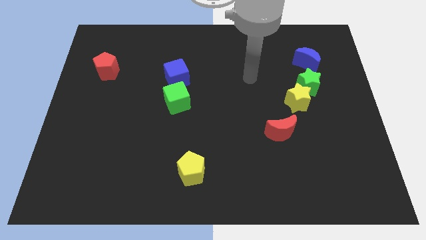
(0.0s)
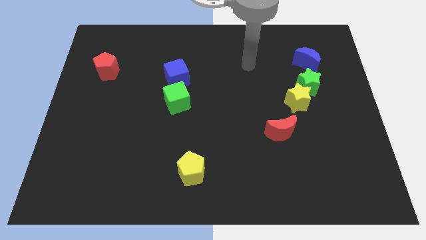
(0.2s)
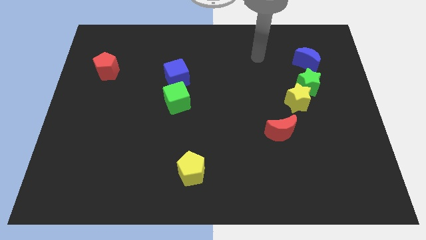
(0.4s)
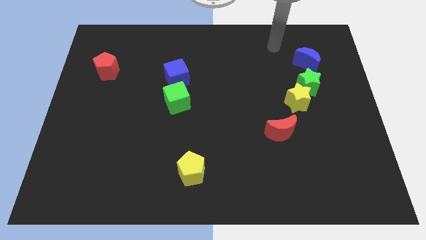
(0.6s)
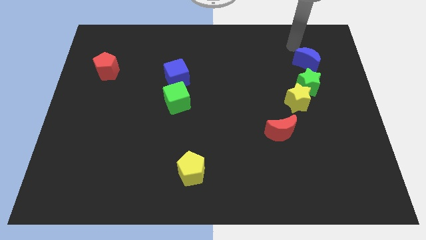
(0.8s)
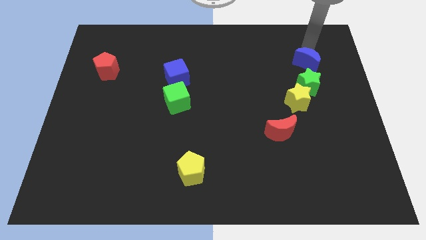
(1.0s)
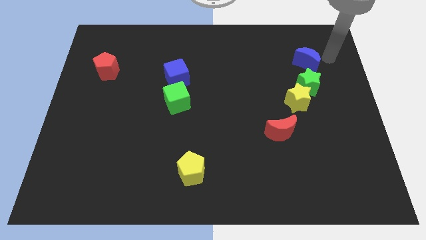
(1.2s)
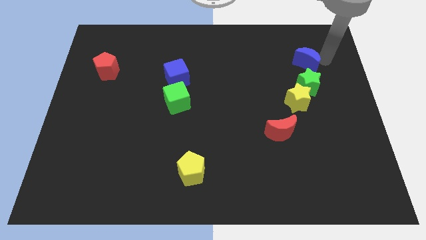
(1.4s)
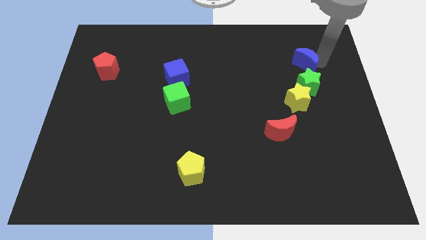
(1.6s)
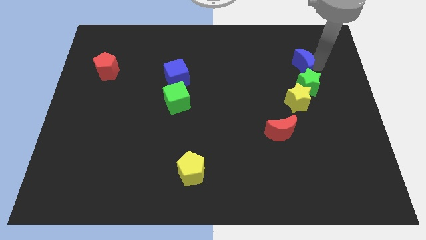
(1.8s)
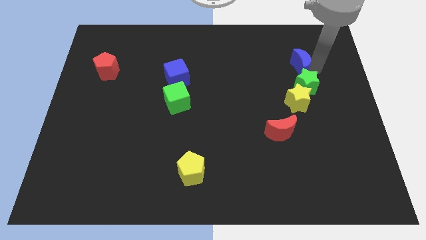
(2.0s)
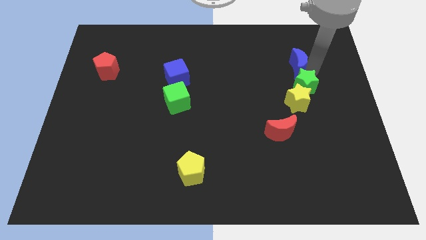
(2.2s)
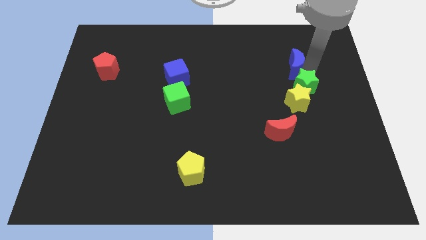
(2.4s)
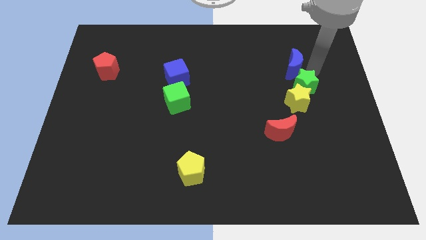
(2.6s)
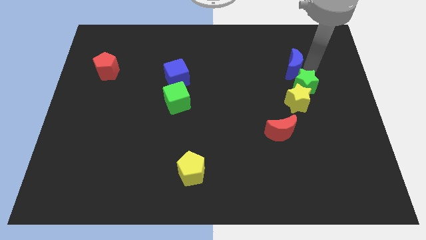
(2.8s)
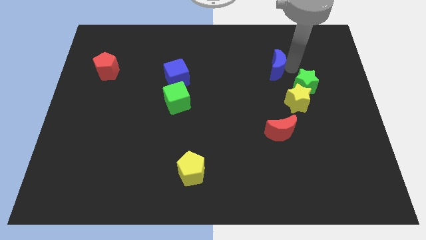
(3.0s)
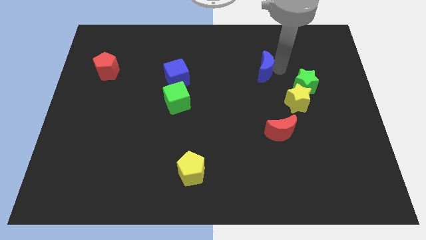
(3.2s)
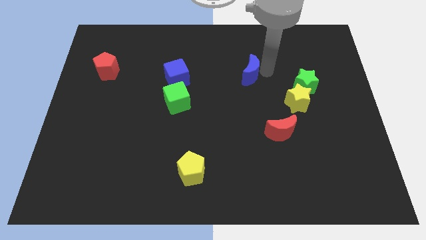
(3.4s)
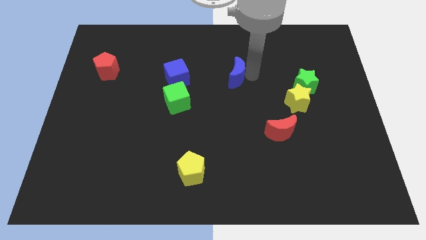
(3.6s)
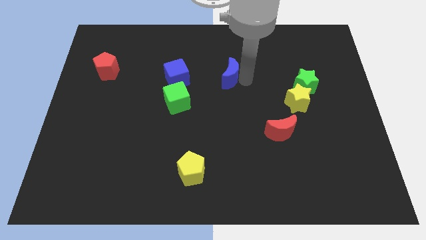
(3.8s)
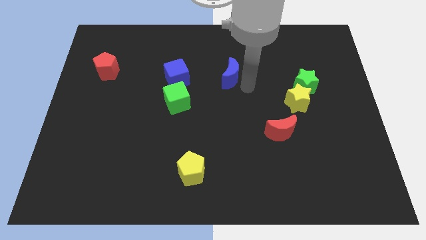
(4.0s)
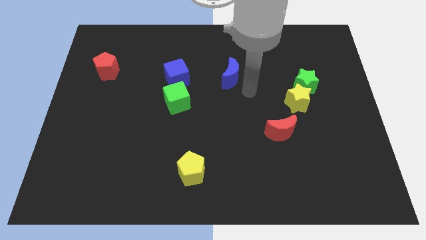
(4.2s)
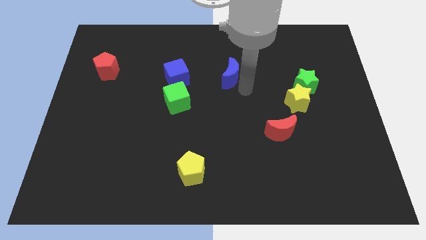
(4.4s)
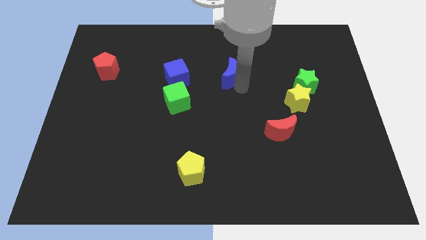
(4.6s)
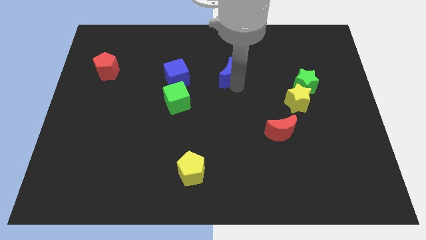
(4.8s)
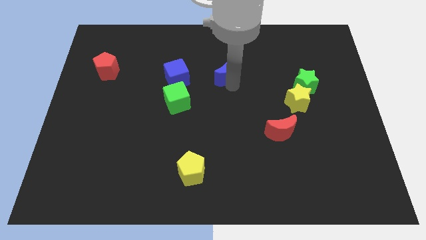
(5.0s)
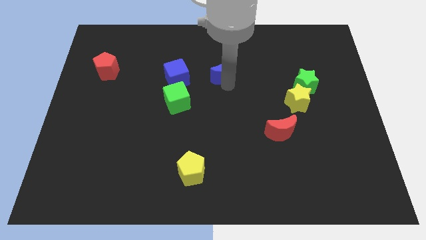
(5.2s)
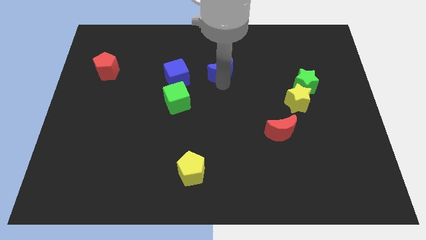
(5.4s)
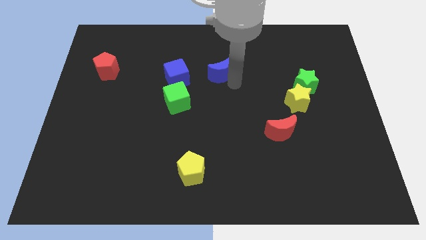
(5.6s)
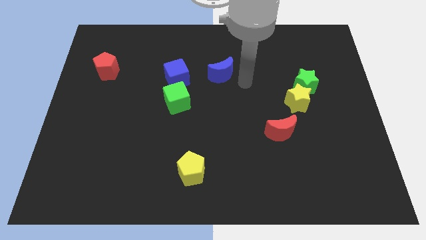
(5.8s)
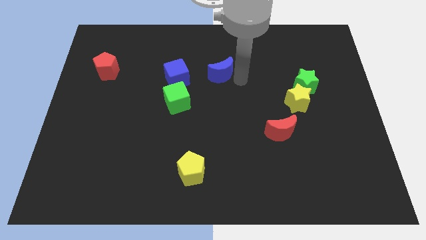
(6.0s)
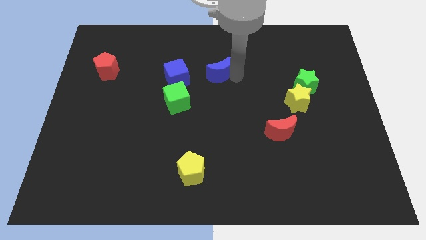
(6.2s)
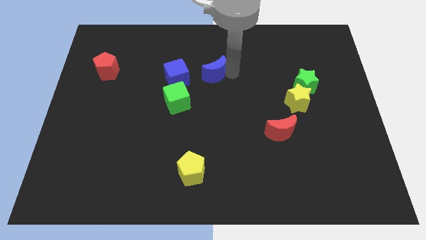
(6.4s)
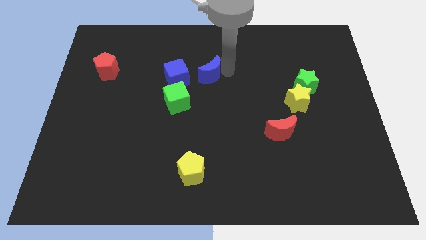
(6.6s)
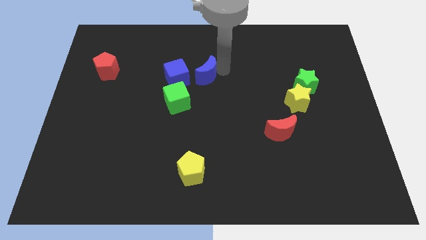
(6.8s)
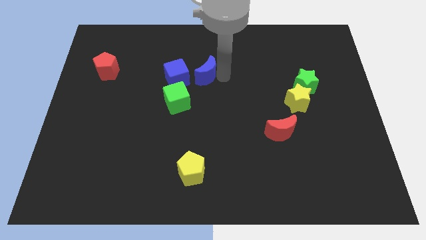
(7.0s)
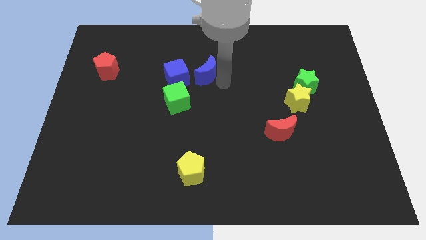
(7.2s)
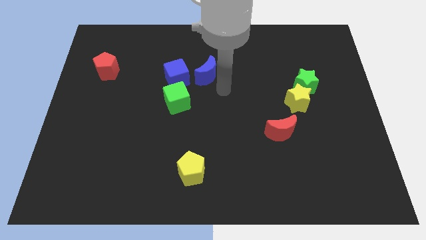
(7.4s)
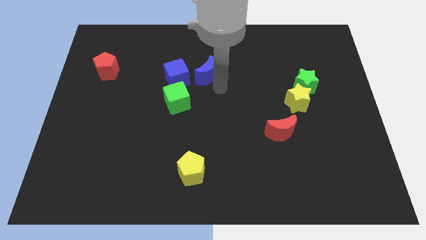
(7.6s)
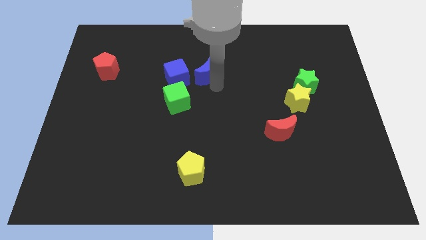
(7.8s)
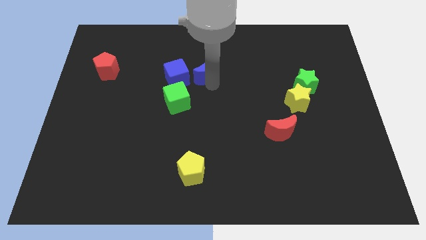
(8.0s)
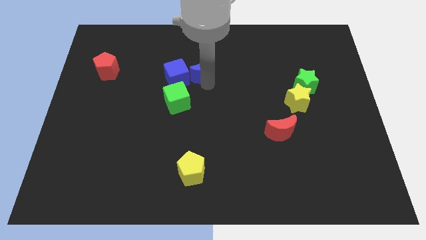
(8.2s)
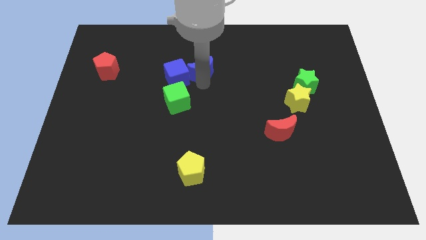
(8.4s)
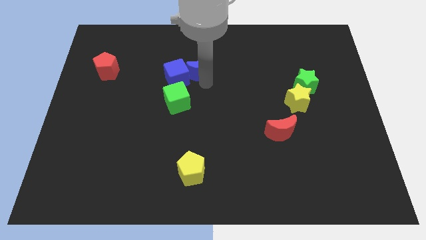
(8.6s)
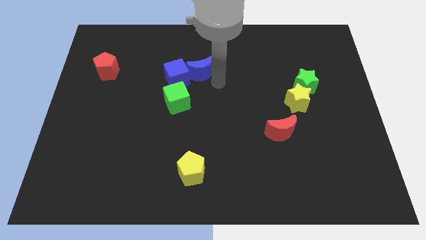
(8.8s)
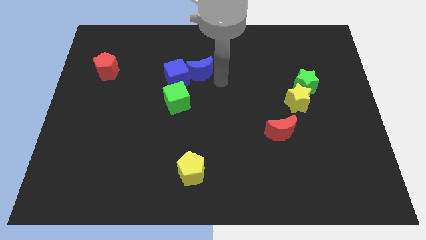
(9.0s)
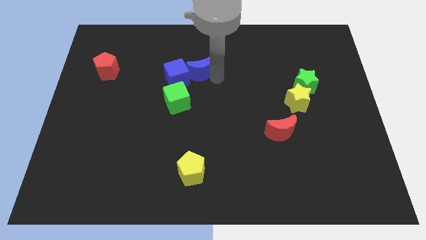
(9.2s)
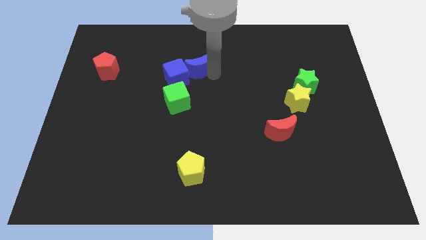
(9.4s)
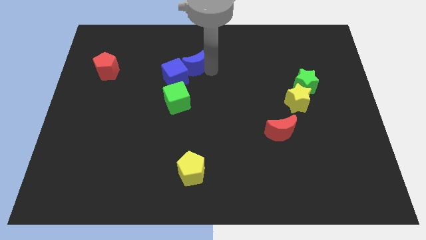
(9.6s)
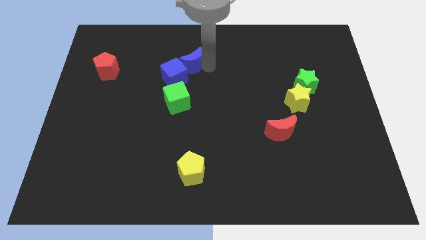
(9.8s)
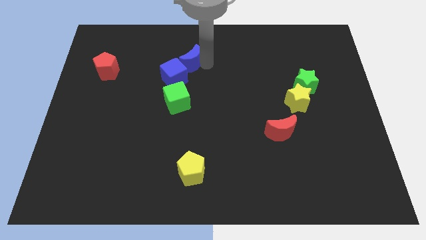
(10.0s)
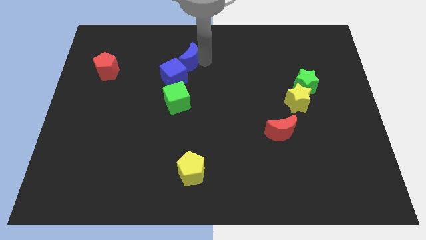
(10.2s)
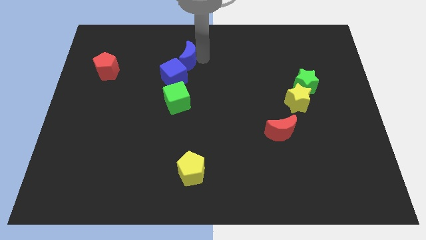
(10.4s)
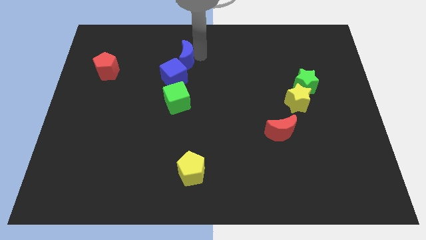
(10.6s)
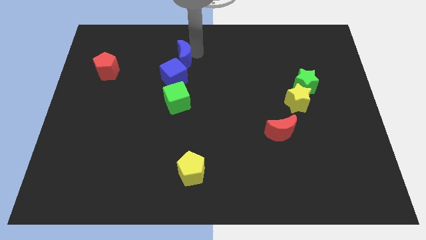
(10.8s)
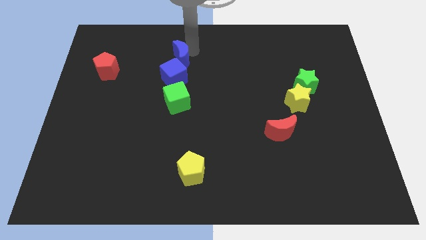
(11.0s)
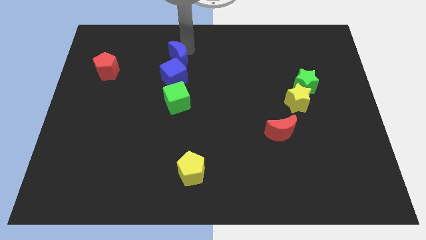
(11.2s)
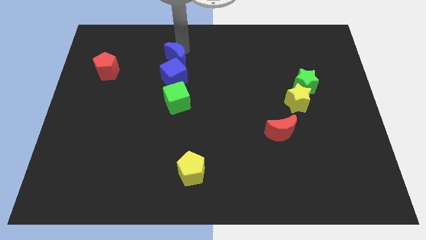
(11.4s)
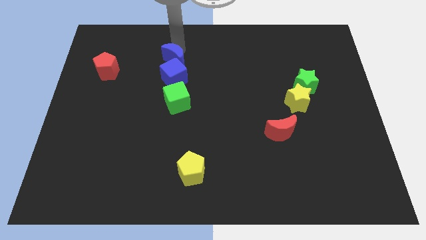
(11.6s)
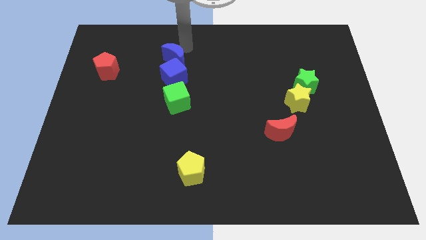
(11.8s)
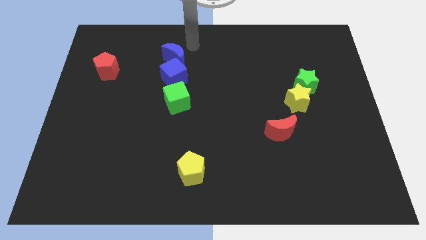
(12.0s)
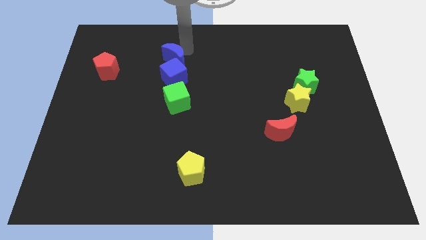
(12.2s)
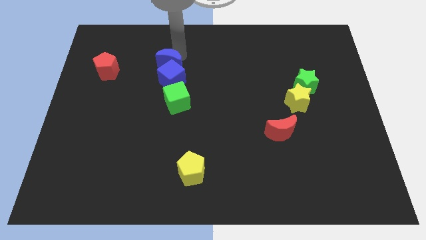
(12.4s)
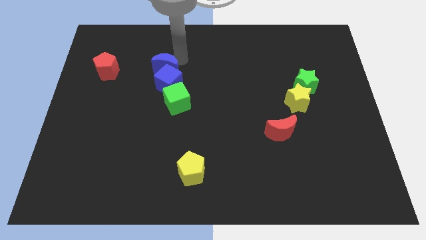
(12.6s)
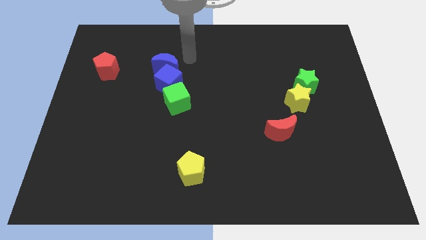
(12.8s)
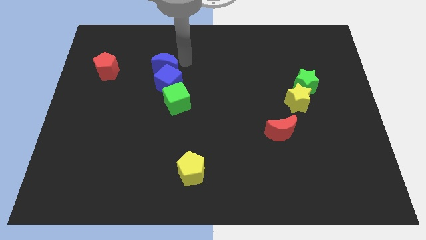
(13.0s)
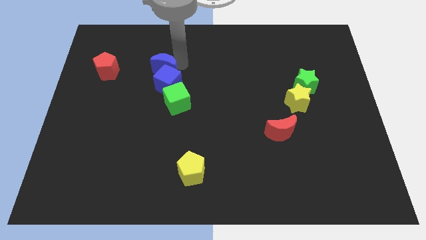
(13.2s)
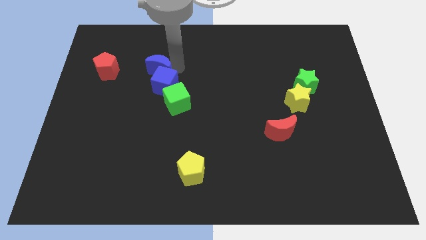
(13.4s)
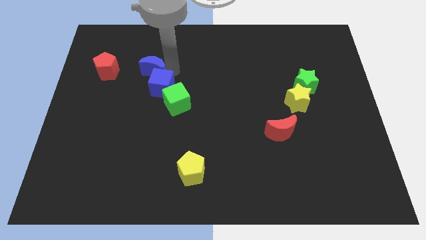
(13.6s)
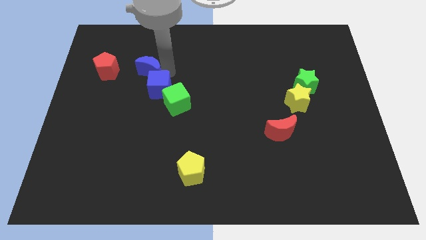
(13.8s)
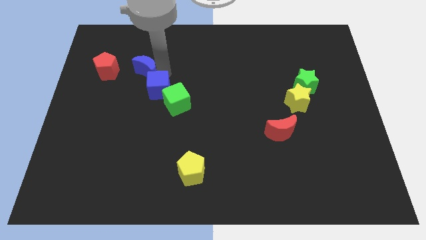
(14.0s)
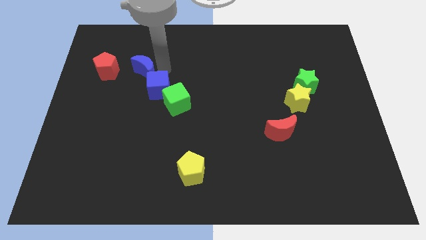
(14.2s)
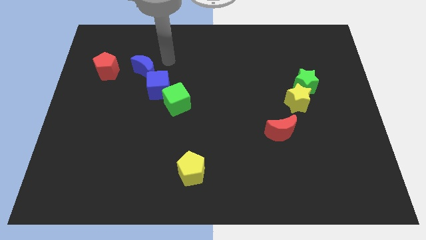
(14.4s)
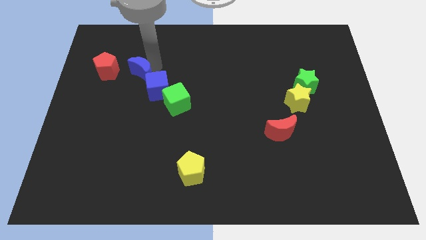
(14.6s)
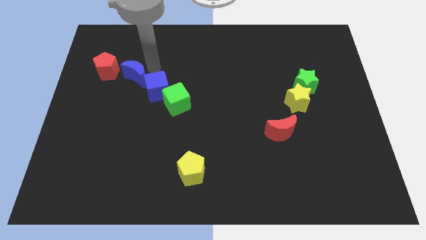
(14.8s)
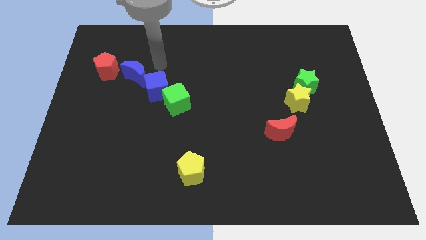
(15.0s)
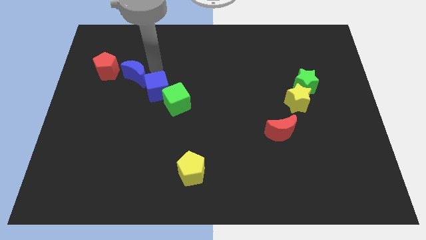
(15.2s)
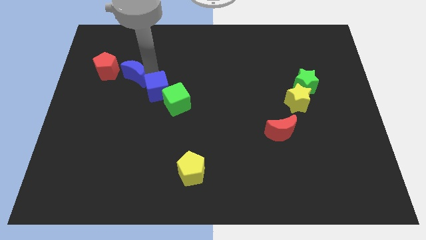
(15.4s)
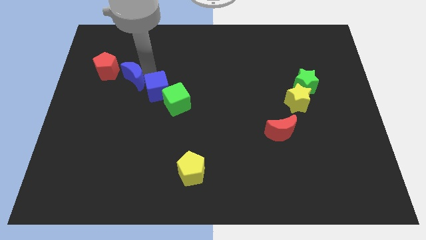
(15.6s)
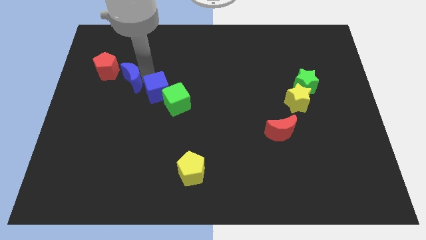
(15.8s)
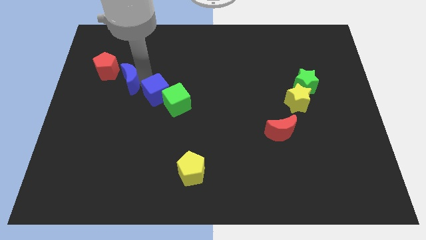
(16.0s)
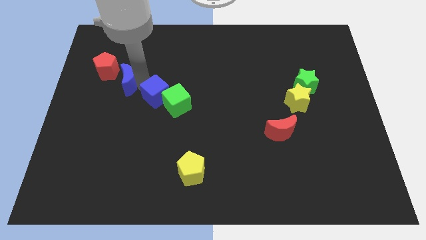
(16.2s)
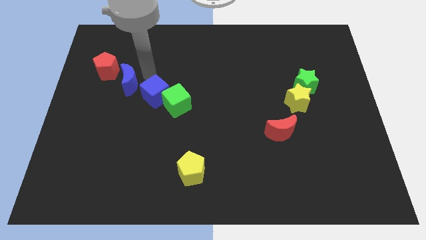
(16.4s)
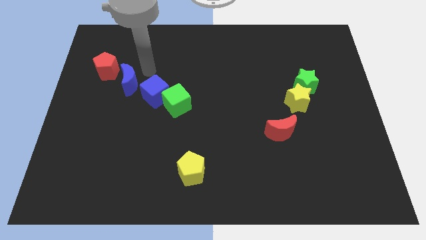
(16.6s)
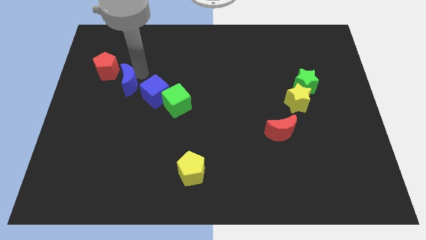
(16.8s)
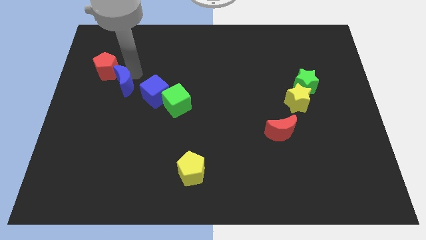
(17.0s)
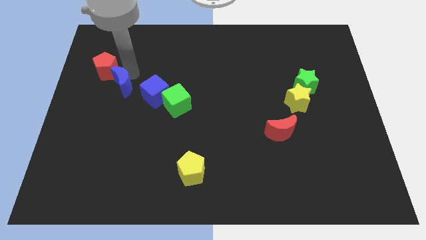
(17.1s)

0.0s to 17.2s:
push the blue moon to the bottom side of the red pentagon
